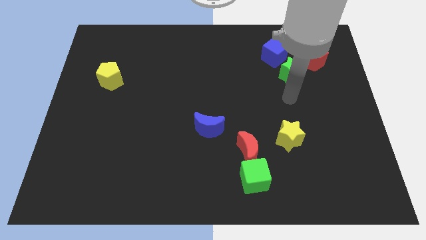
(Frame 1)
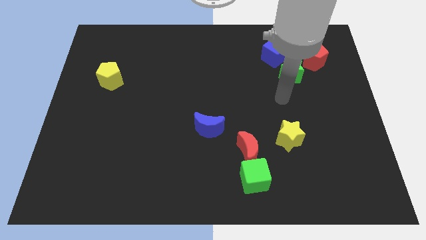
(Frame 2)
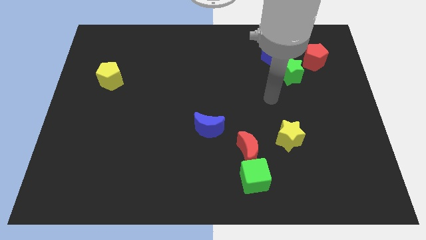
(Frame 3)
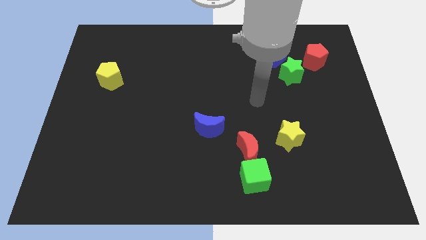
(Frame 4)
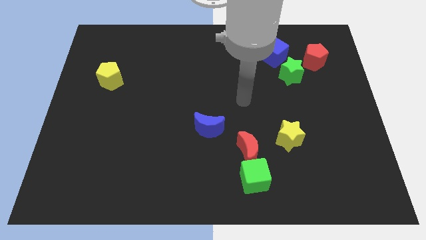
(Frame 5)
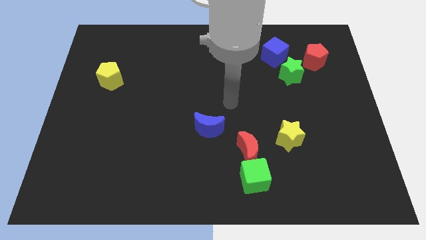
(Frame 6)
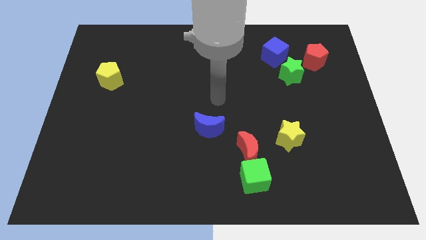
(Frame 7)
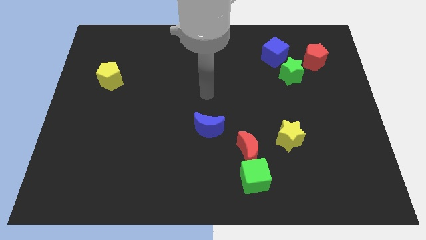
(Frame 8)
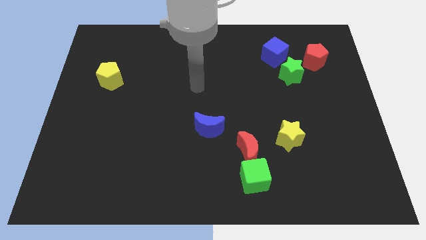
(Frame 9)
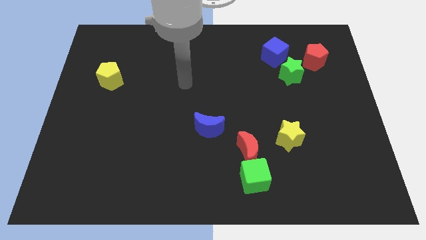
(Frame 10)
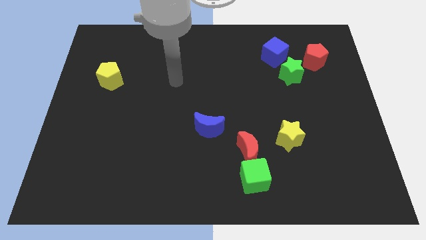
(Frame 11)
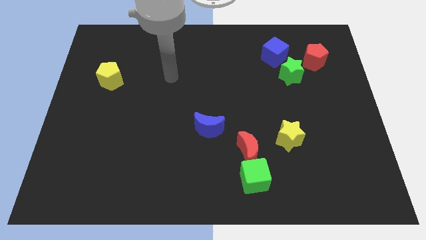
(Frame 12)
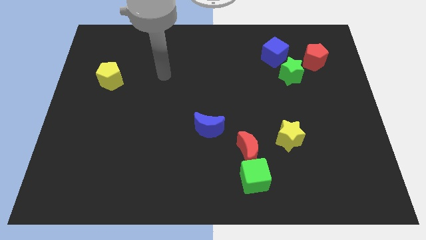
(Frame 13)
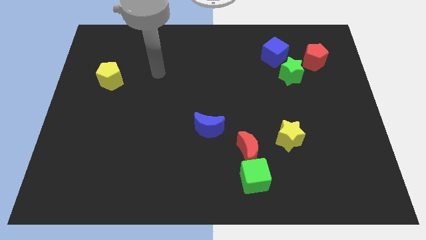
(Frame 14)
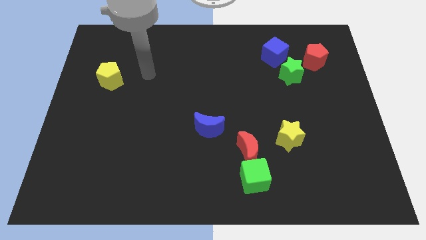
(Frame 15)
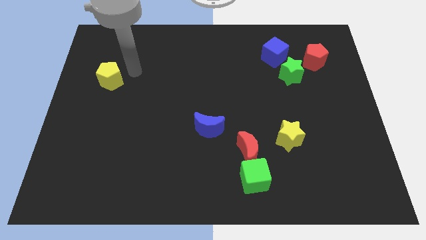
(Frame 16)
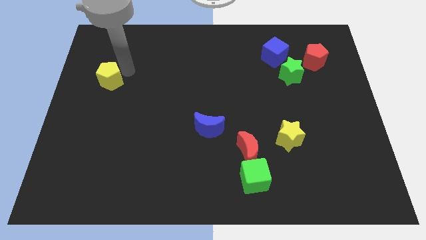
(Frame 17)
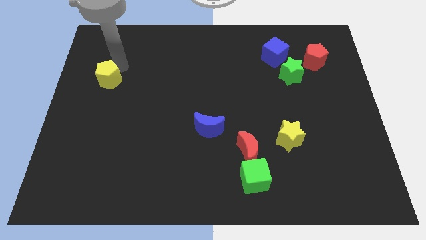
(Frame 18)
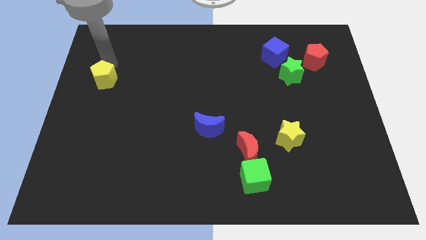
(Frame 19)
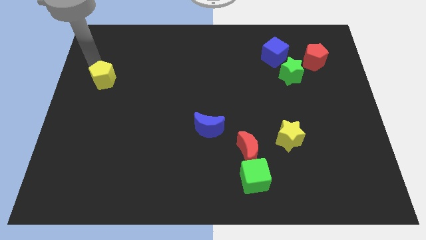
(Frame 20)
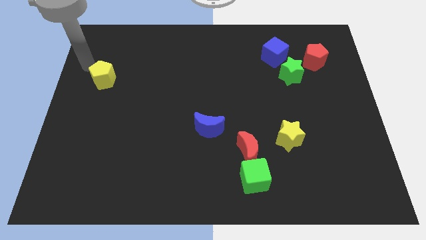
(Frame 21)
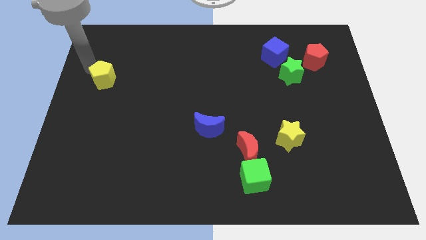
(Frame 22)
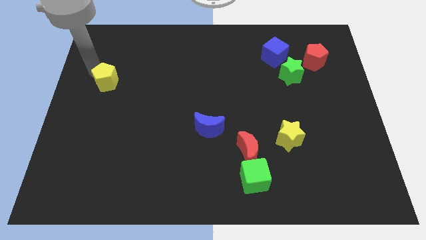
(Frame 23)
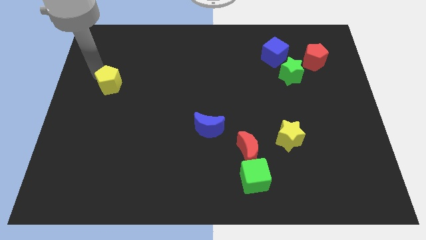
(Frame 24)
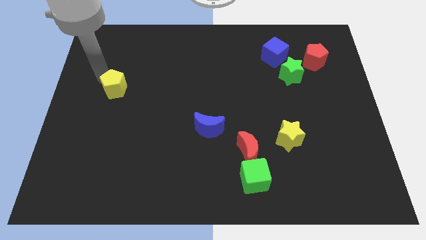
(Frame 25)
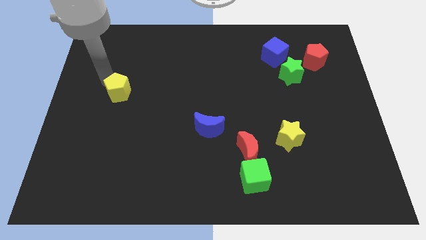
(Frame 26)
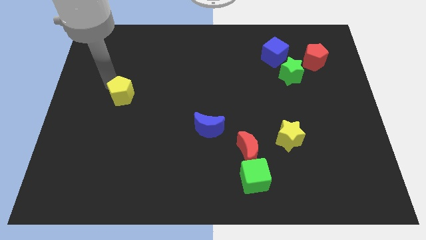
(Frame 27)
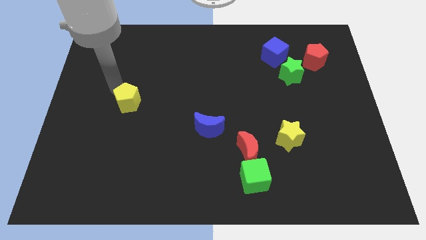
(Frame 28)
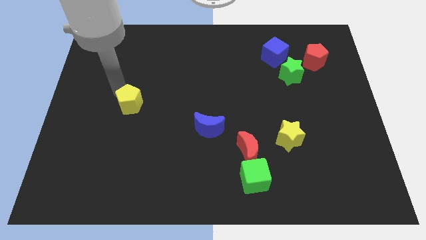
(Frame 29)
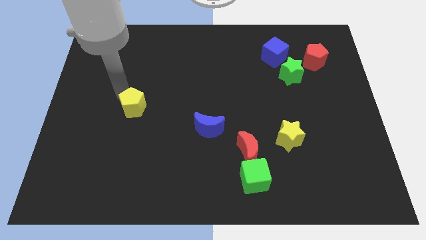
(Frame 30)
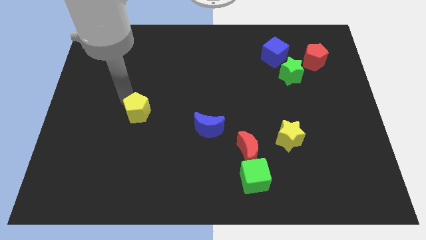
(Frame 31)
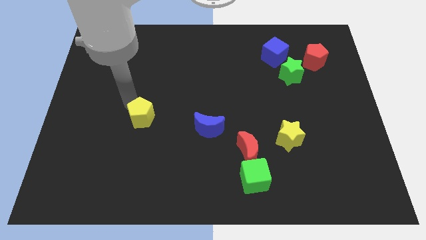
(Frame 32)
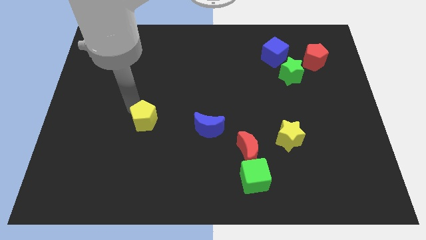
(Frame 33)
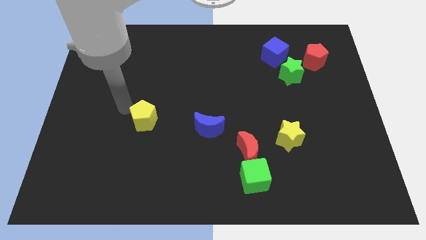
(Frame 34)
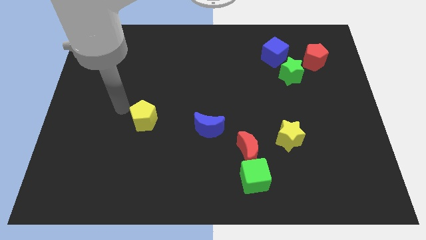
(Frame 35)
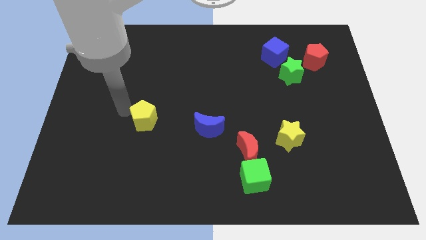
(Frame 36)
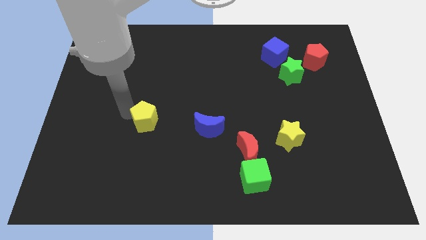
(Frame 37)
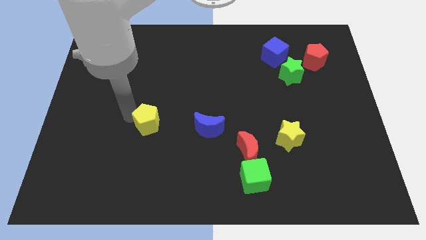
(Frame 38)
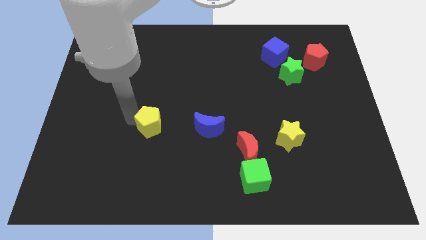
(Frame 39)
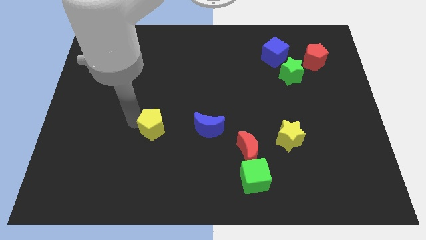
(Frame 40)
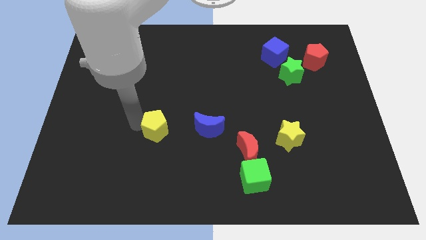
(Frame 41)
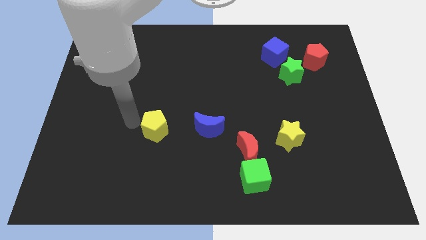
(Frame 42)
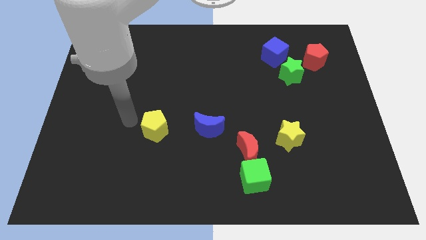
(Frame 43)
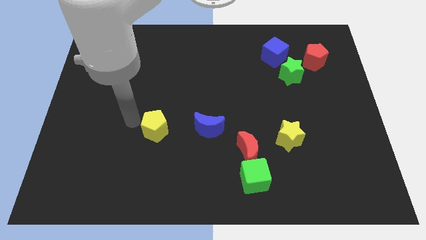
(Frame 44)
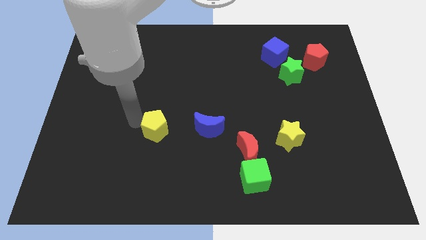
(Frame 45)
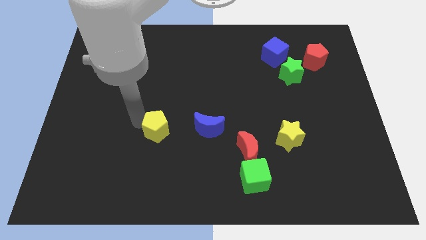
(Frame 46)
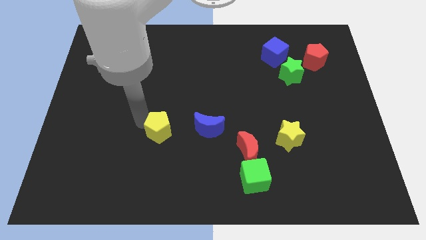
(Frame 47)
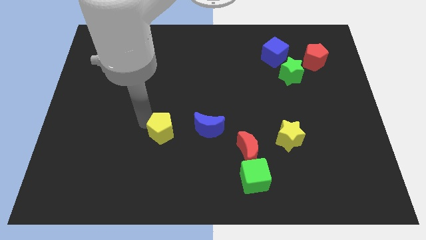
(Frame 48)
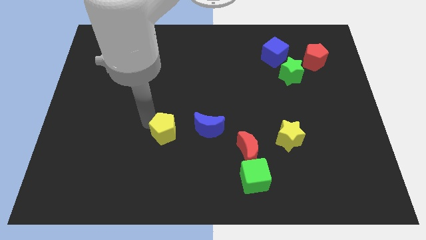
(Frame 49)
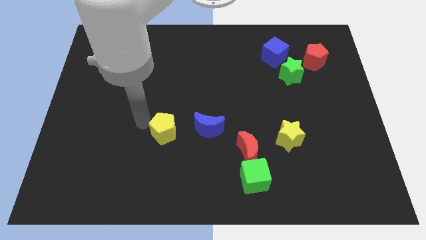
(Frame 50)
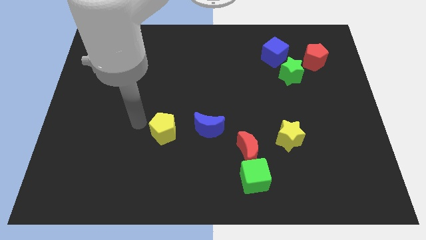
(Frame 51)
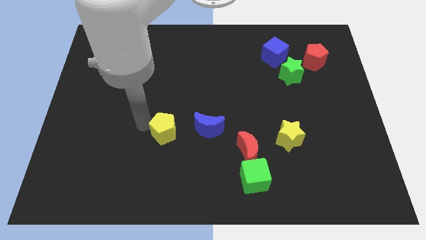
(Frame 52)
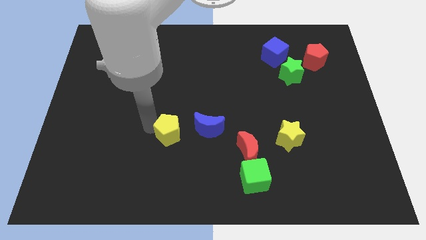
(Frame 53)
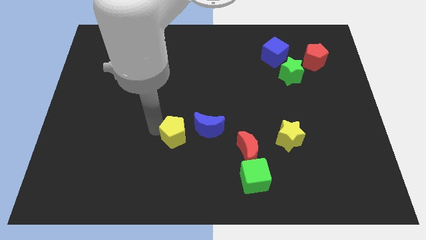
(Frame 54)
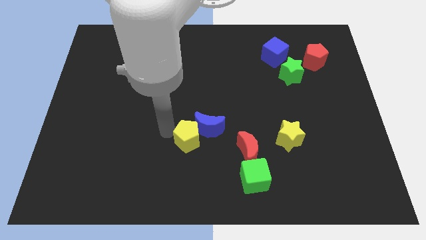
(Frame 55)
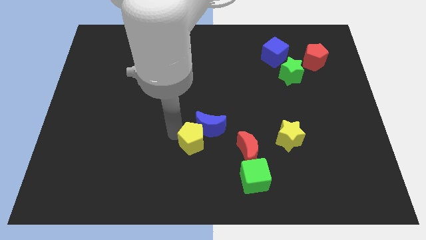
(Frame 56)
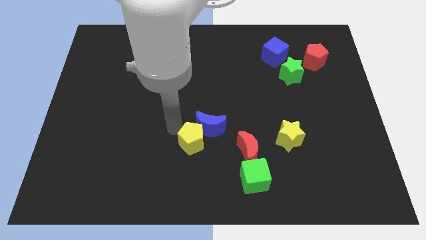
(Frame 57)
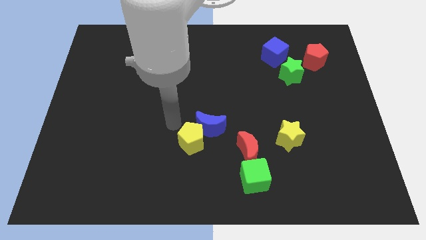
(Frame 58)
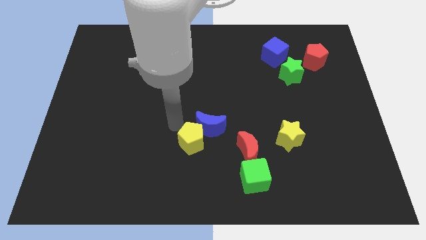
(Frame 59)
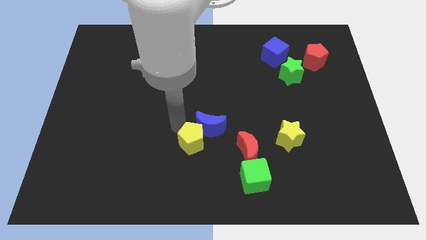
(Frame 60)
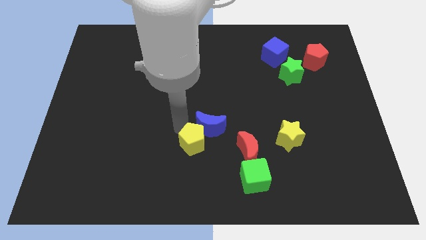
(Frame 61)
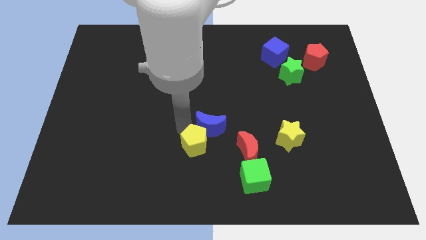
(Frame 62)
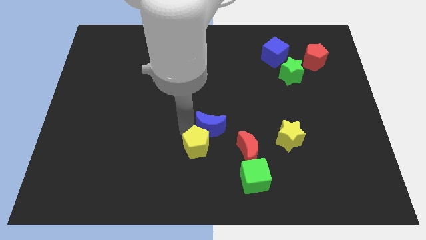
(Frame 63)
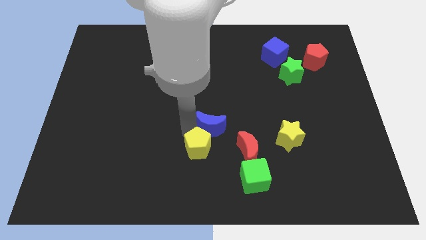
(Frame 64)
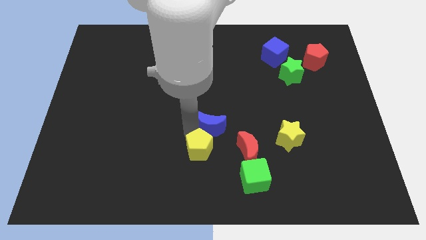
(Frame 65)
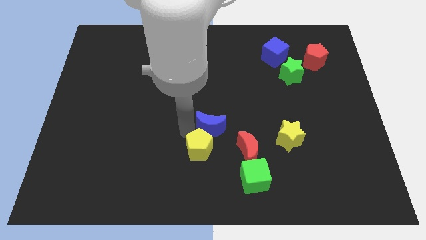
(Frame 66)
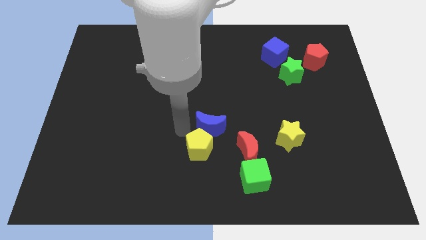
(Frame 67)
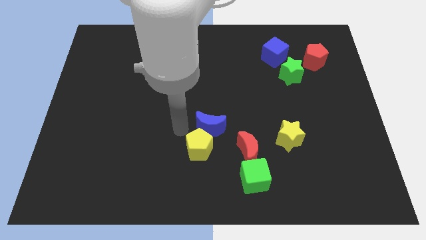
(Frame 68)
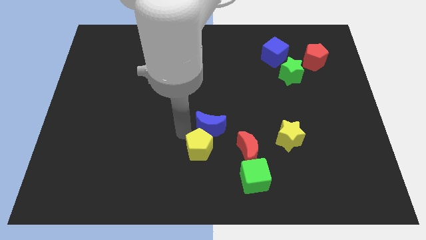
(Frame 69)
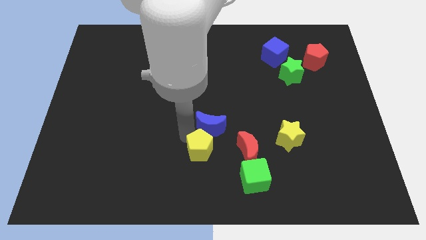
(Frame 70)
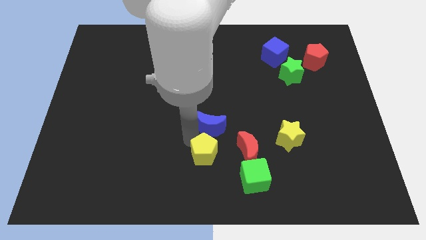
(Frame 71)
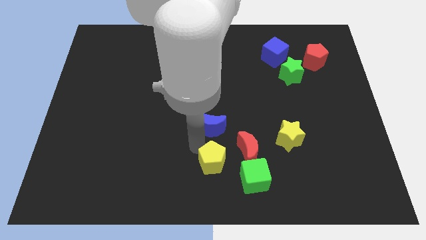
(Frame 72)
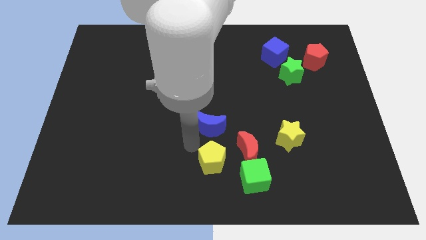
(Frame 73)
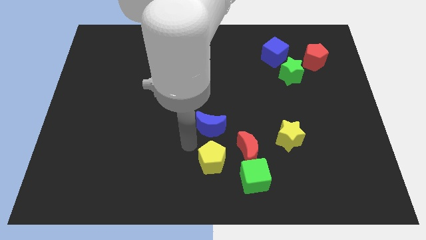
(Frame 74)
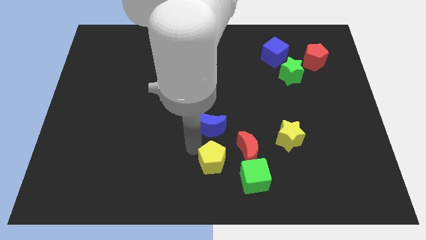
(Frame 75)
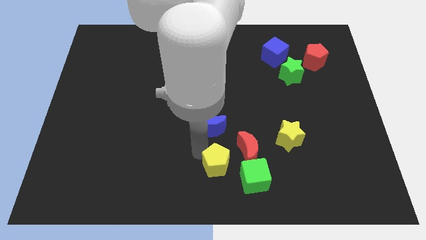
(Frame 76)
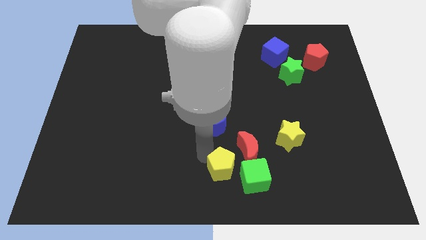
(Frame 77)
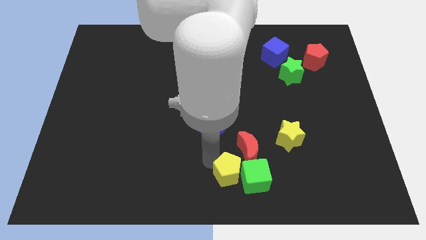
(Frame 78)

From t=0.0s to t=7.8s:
move the yellow pentagon to the green cube

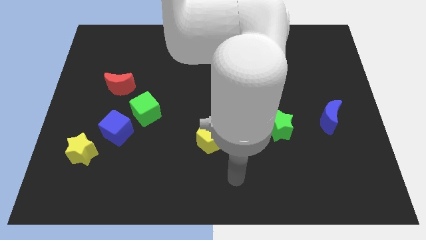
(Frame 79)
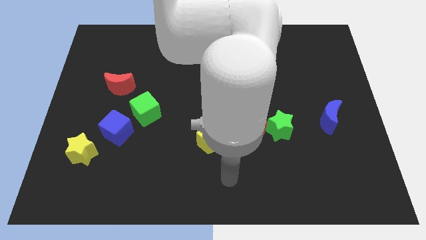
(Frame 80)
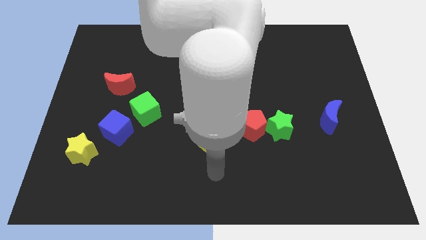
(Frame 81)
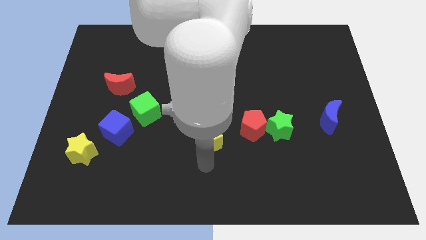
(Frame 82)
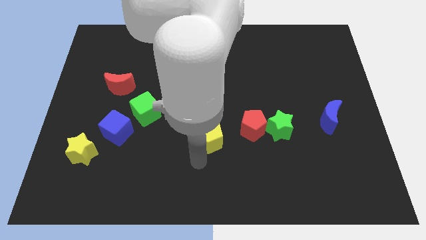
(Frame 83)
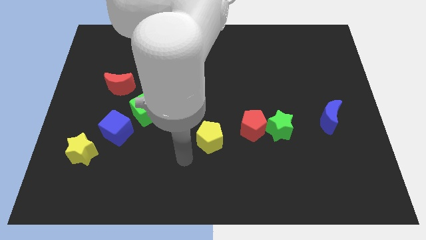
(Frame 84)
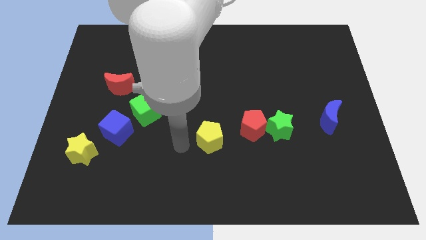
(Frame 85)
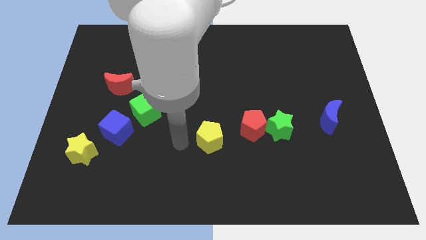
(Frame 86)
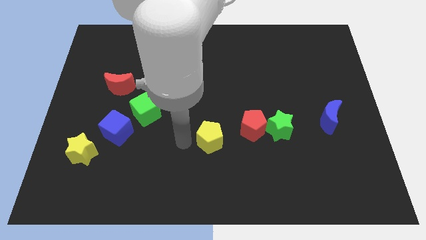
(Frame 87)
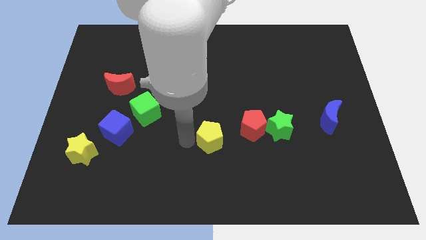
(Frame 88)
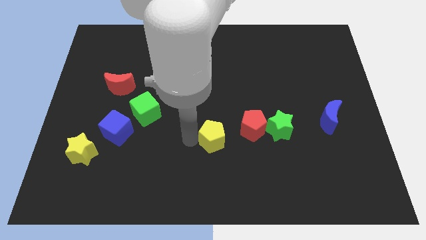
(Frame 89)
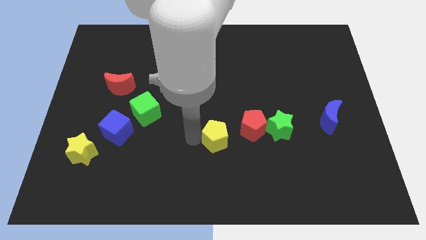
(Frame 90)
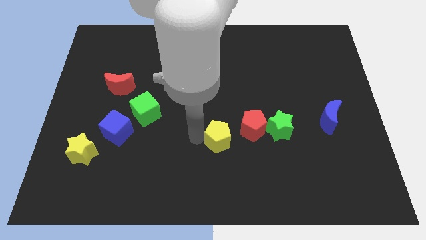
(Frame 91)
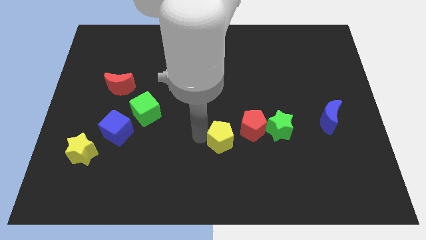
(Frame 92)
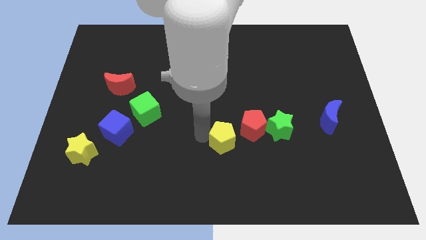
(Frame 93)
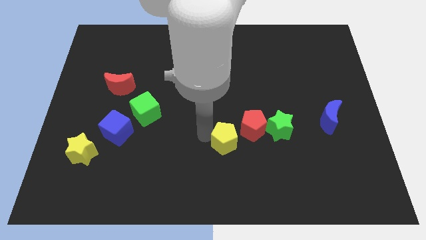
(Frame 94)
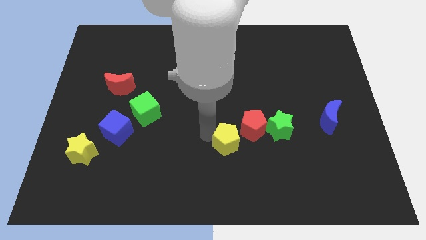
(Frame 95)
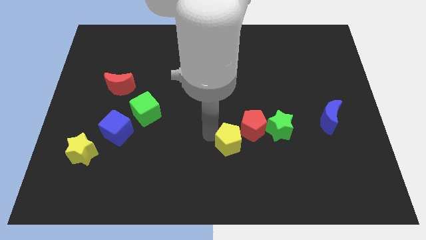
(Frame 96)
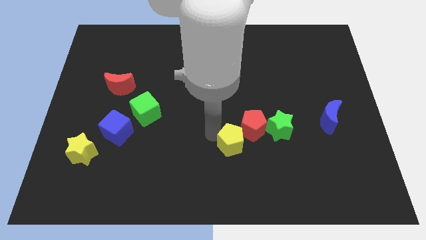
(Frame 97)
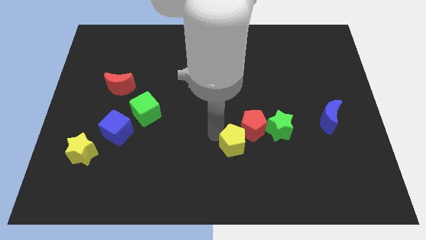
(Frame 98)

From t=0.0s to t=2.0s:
push the yellow pentagon to the red pentagon
